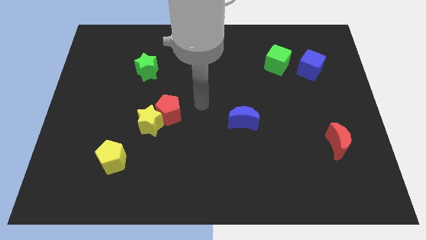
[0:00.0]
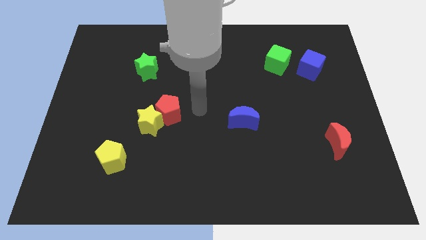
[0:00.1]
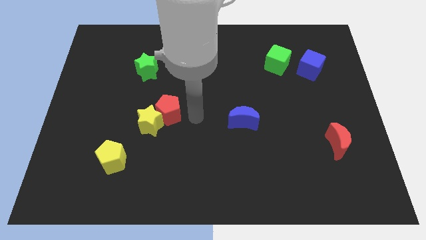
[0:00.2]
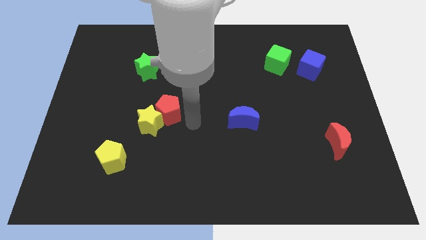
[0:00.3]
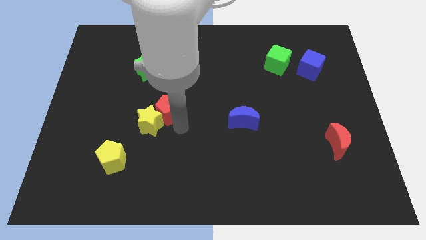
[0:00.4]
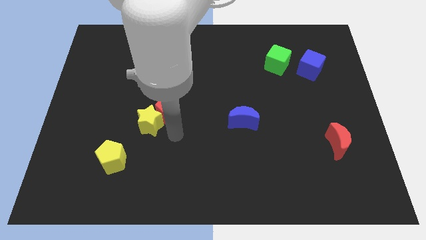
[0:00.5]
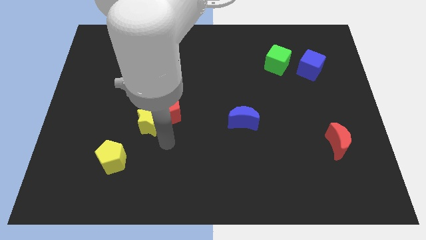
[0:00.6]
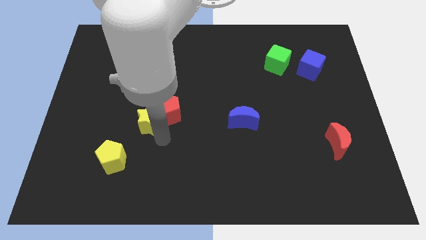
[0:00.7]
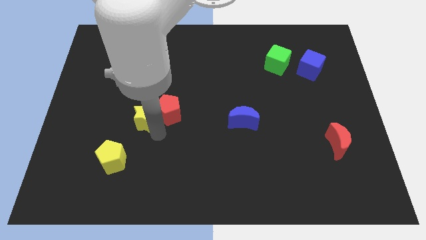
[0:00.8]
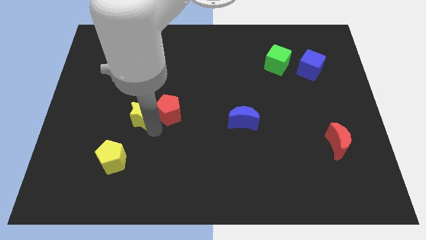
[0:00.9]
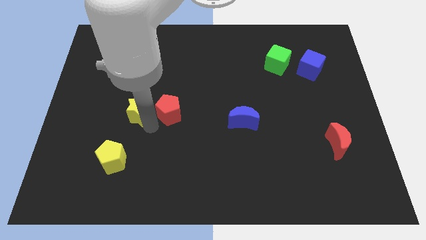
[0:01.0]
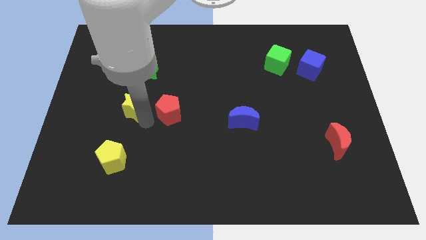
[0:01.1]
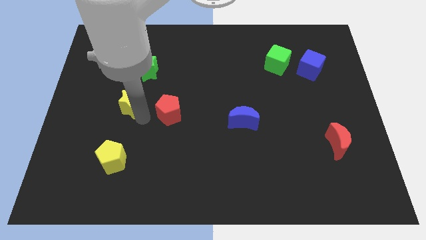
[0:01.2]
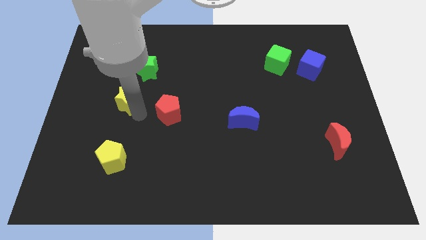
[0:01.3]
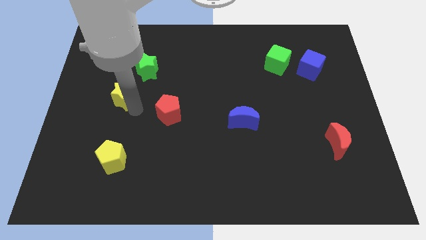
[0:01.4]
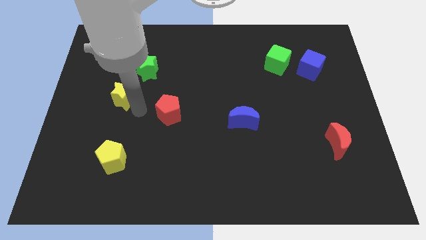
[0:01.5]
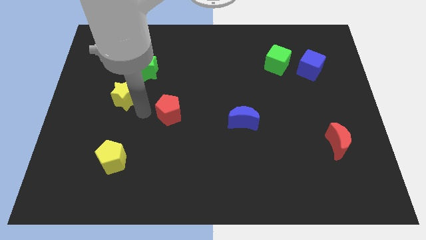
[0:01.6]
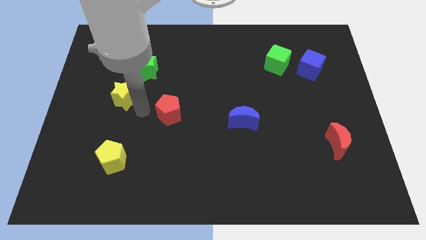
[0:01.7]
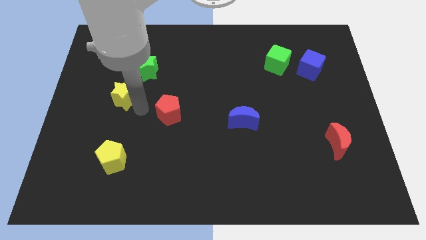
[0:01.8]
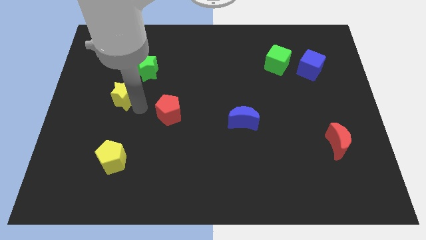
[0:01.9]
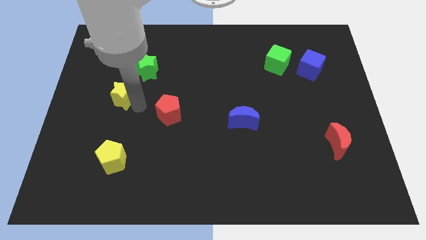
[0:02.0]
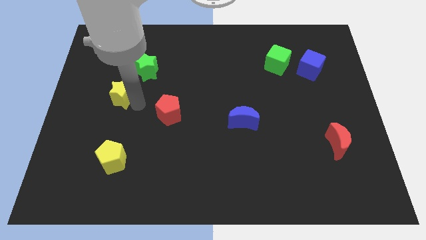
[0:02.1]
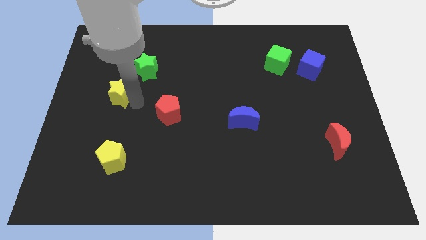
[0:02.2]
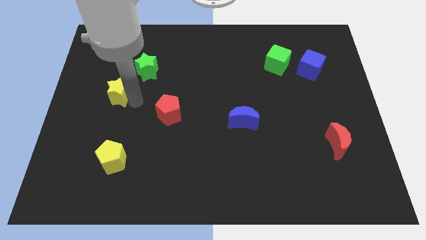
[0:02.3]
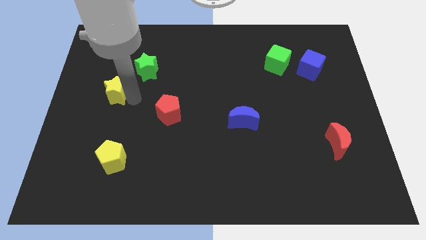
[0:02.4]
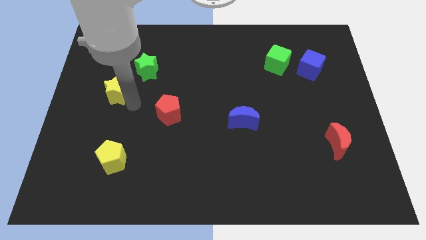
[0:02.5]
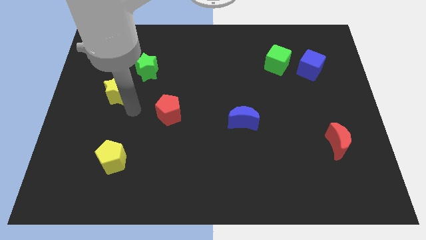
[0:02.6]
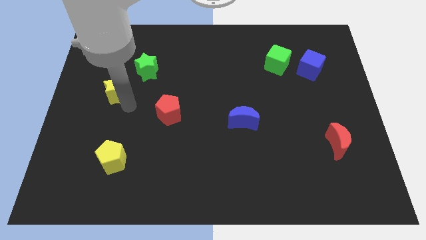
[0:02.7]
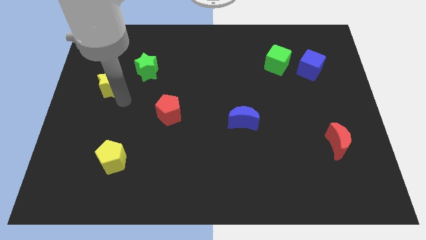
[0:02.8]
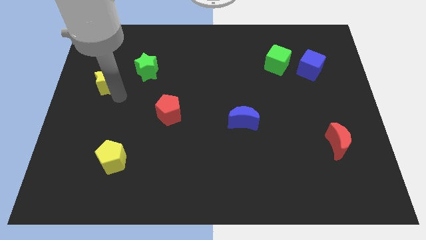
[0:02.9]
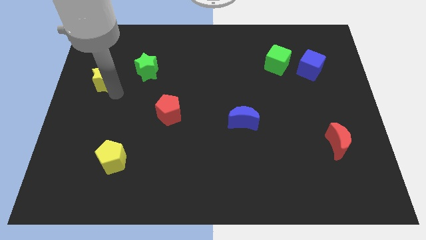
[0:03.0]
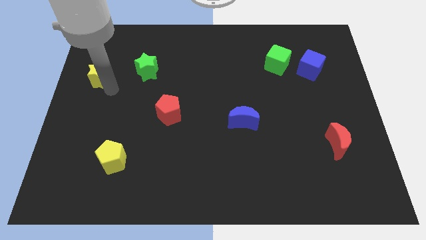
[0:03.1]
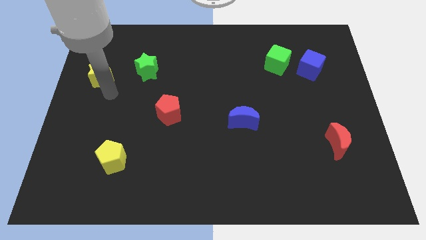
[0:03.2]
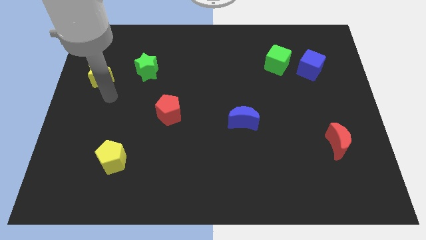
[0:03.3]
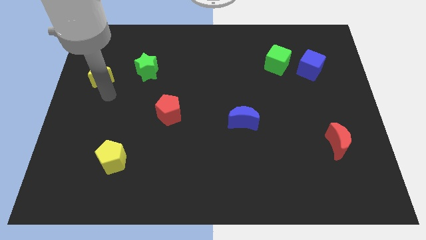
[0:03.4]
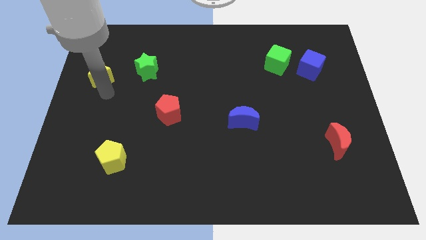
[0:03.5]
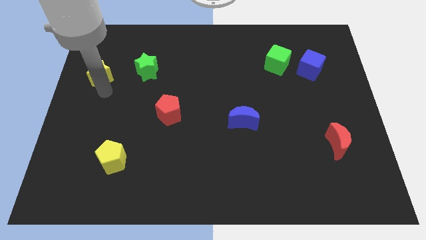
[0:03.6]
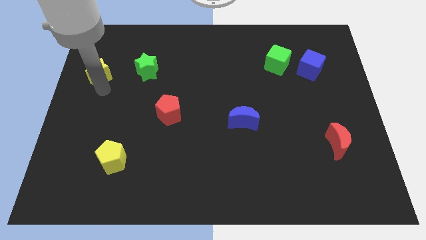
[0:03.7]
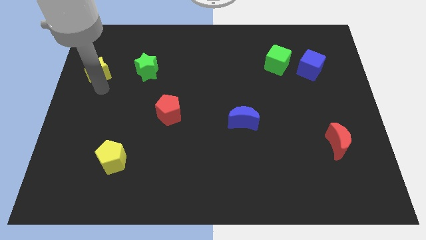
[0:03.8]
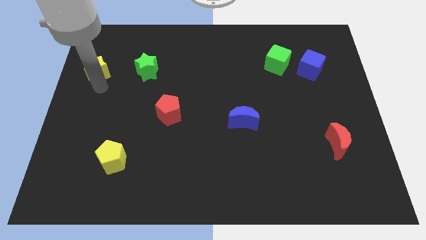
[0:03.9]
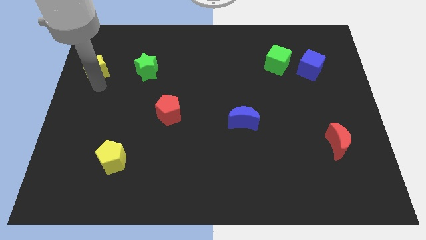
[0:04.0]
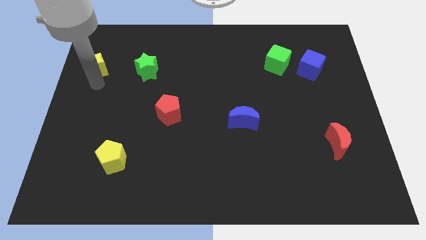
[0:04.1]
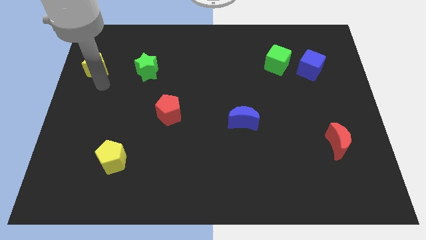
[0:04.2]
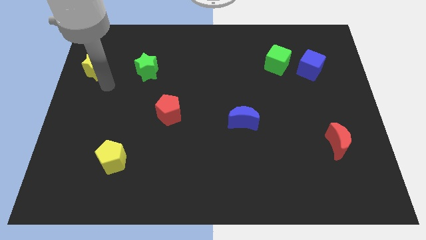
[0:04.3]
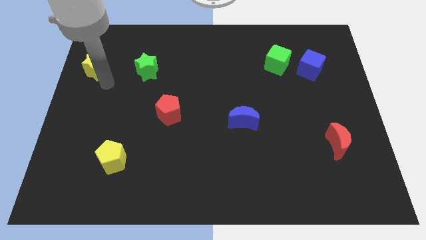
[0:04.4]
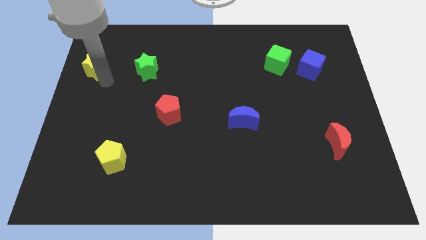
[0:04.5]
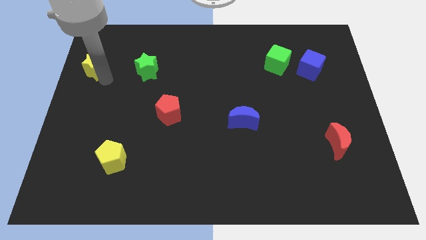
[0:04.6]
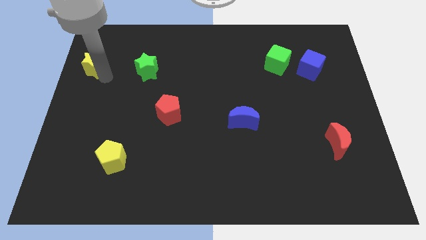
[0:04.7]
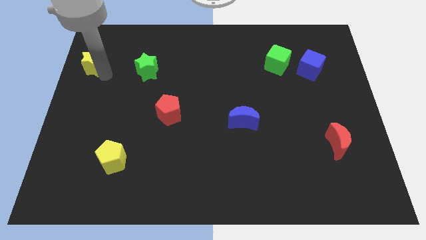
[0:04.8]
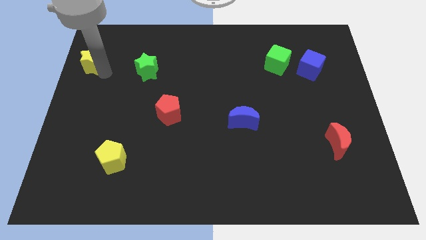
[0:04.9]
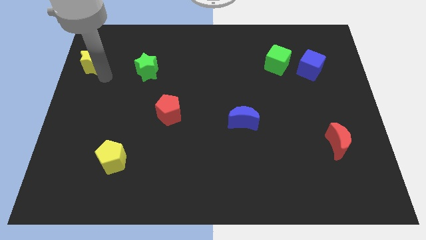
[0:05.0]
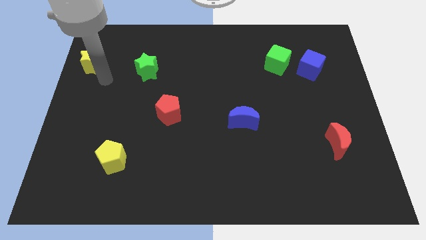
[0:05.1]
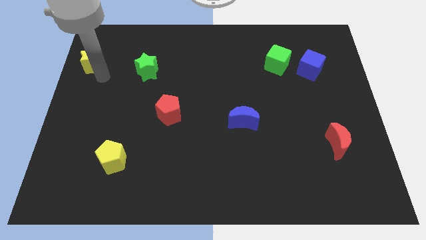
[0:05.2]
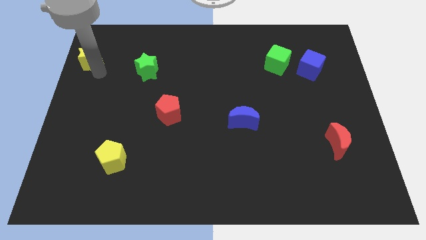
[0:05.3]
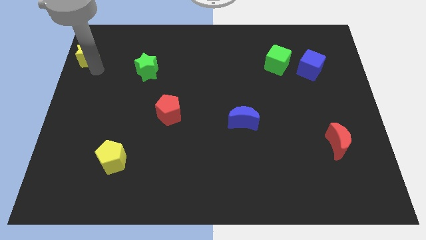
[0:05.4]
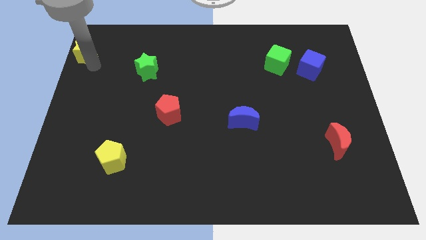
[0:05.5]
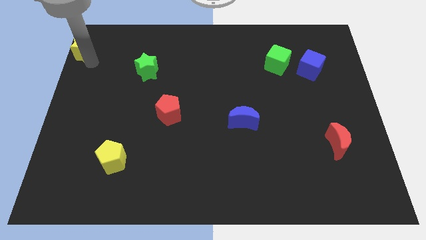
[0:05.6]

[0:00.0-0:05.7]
slide the yellow star to the top left corner
